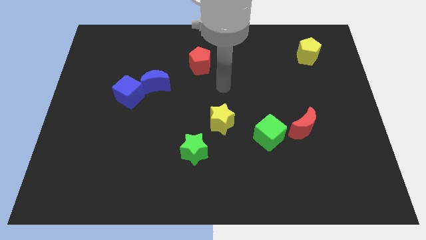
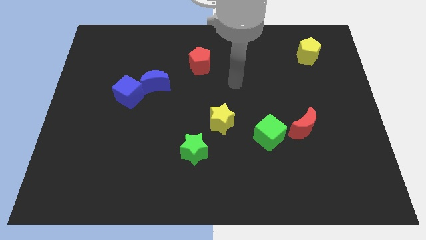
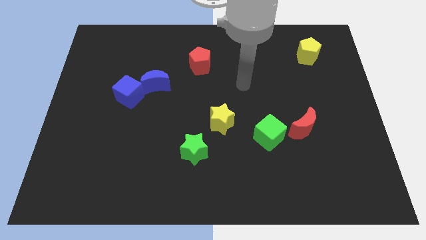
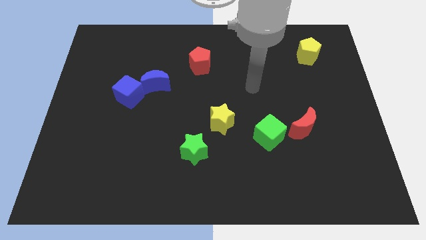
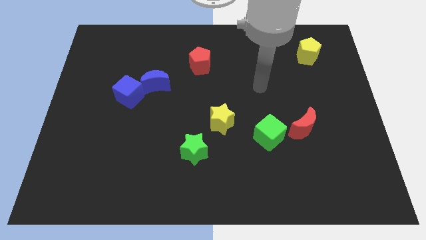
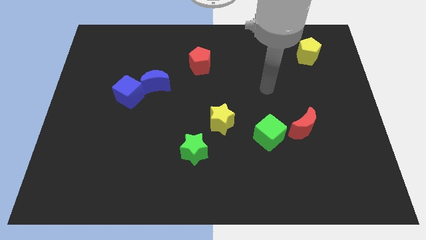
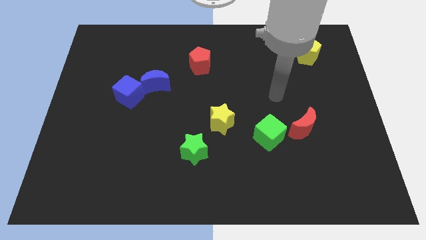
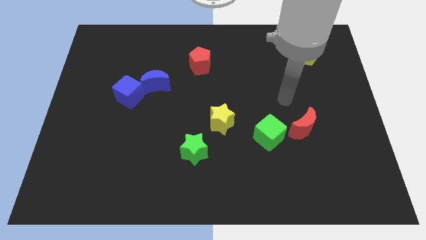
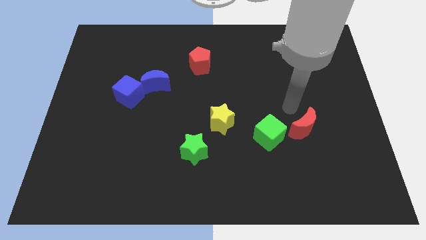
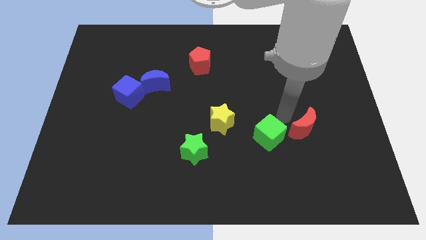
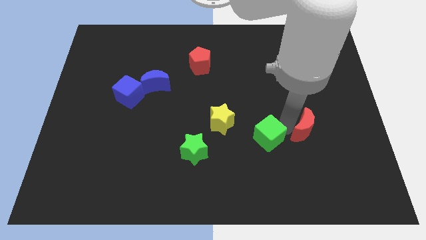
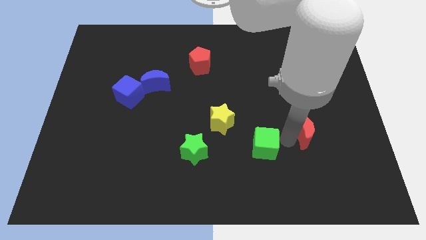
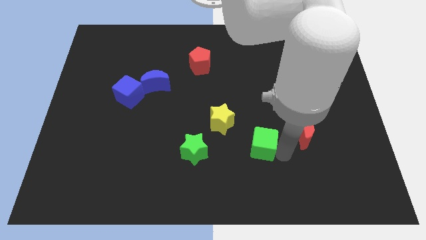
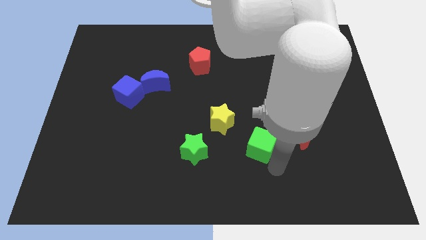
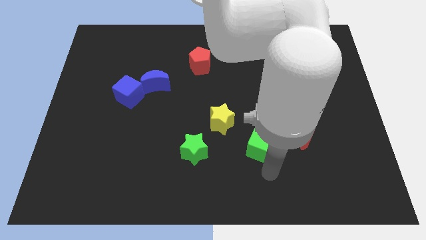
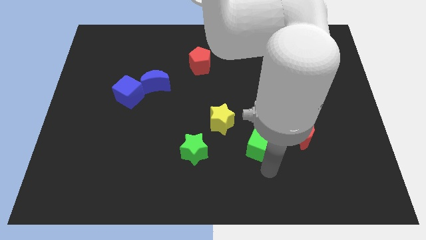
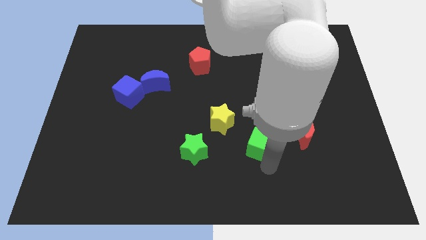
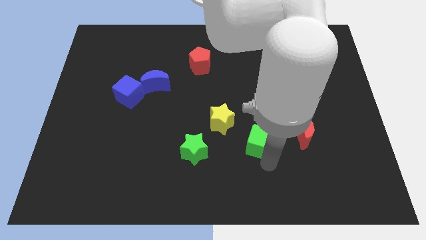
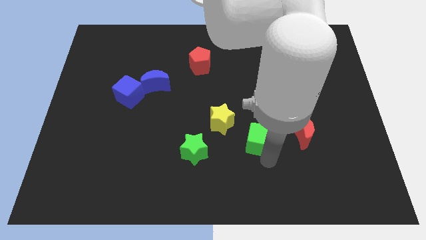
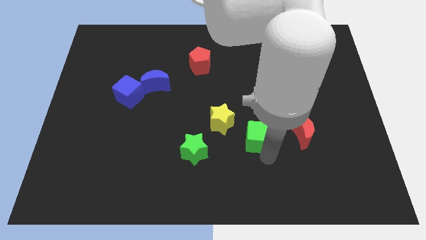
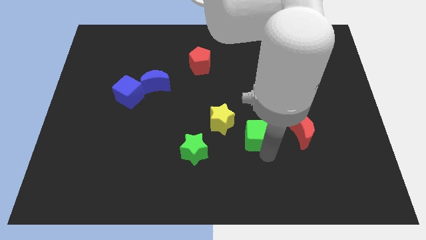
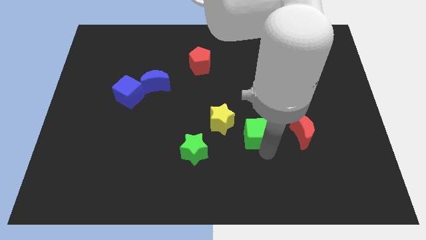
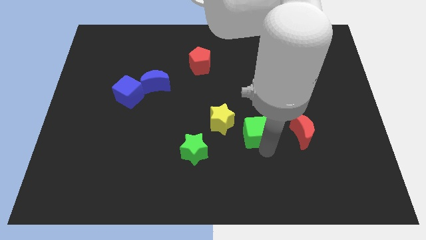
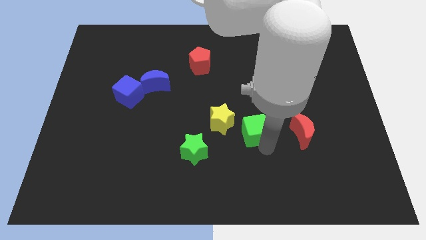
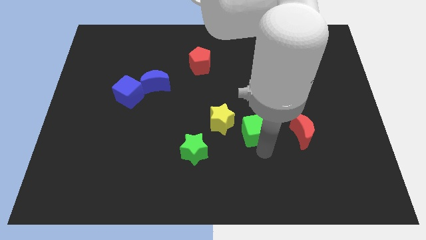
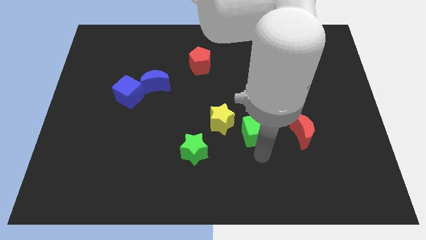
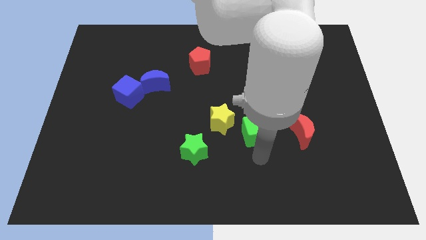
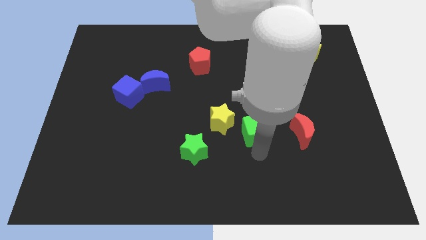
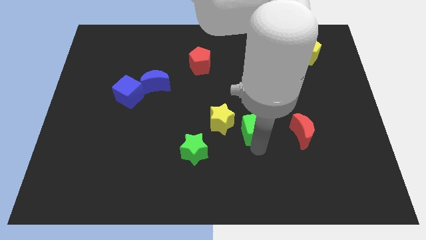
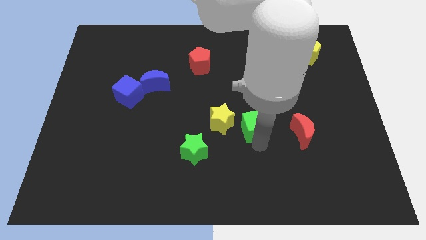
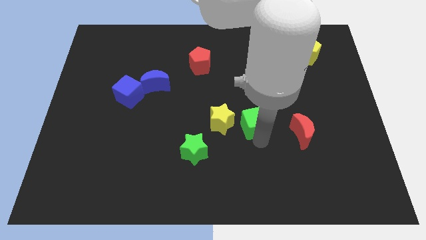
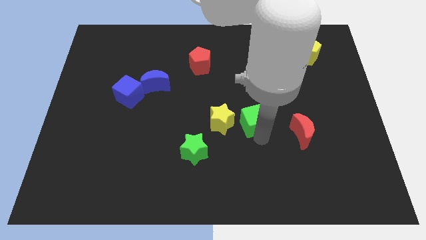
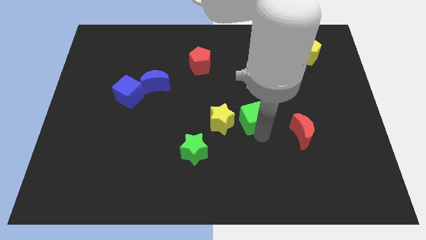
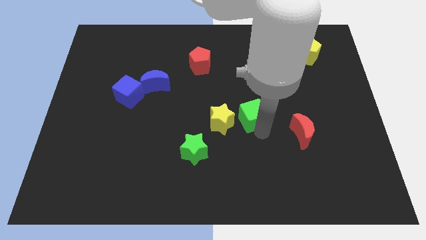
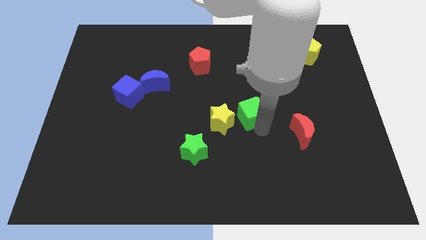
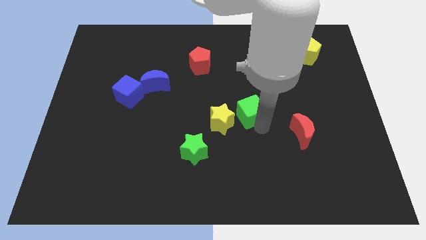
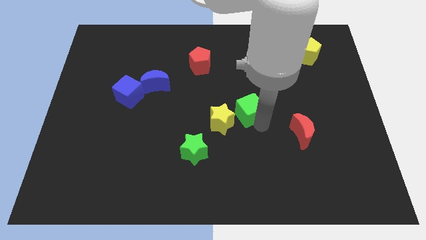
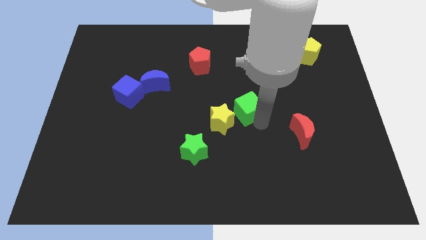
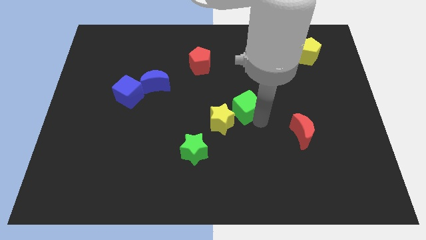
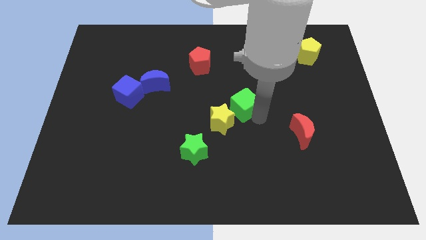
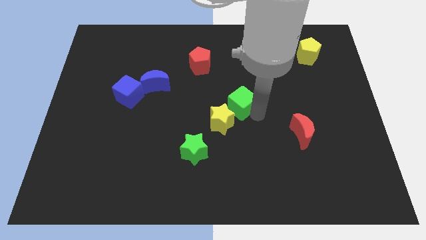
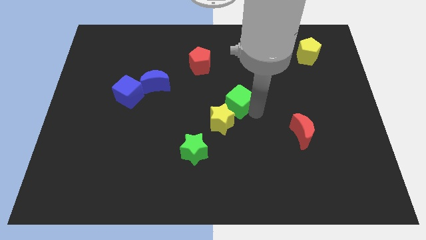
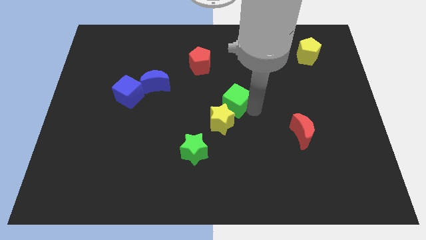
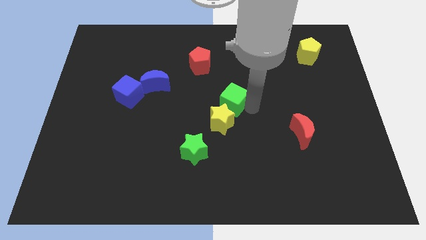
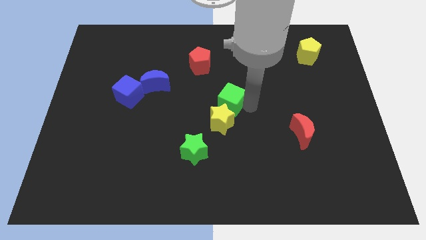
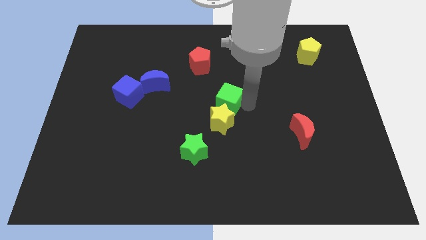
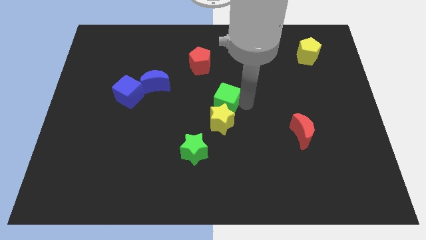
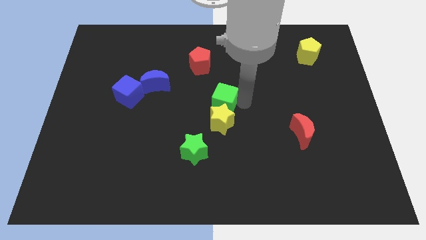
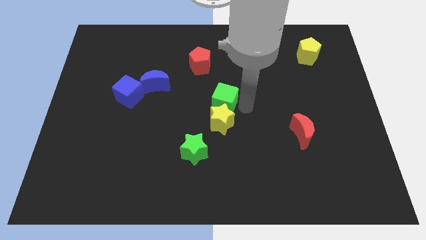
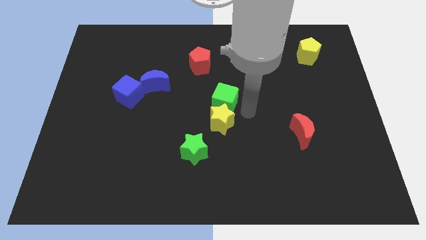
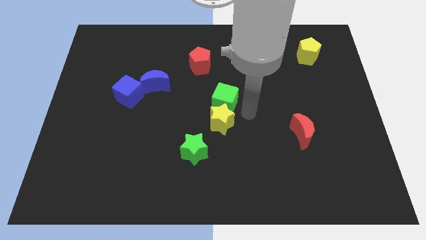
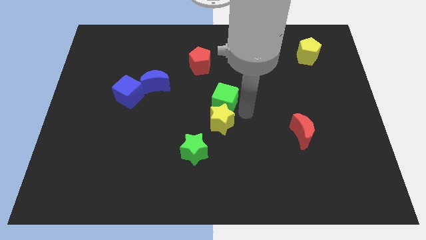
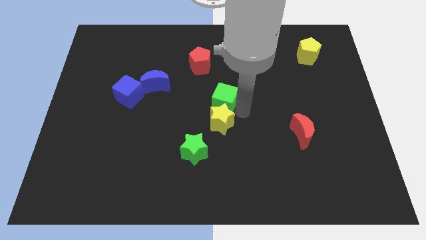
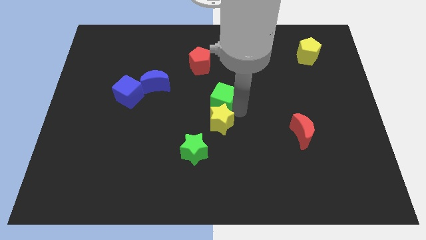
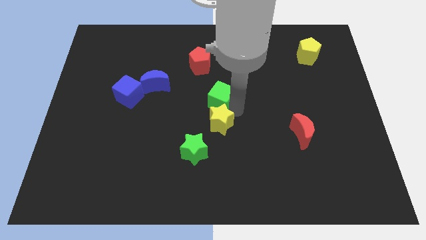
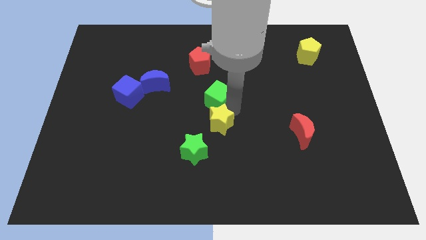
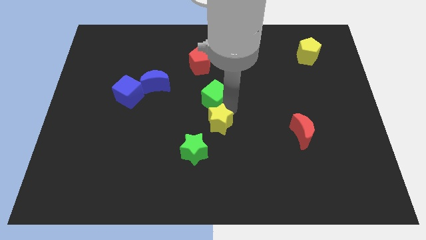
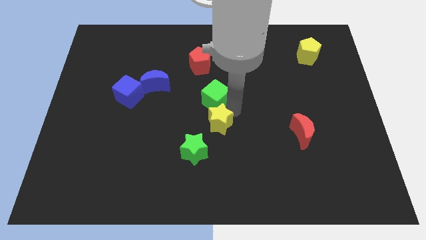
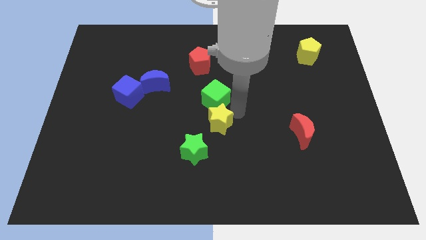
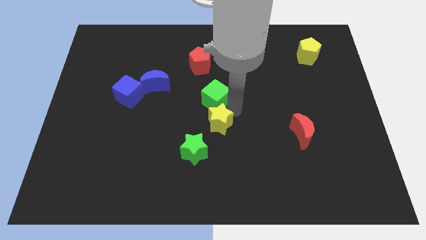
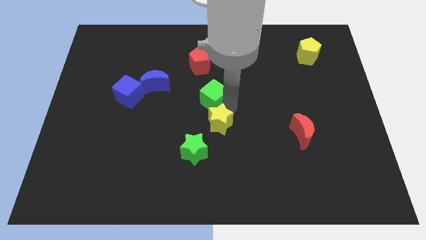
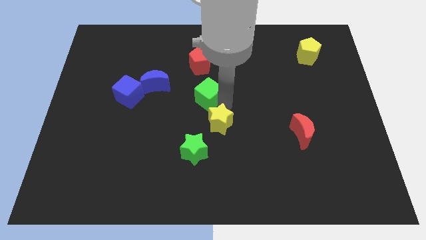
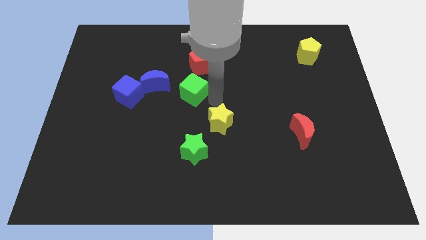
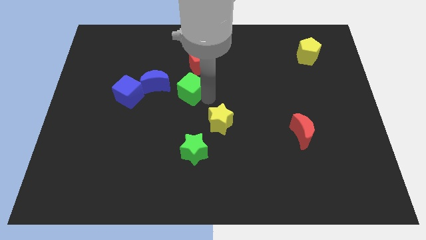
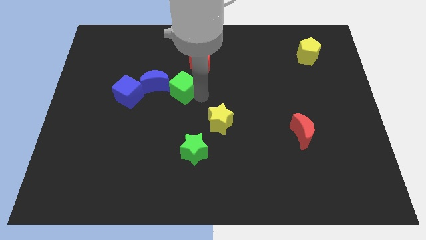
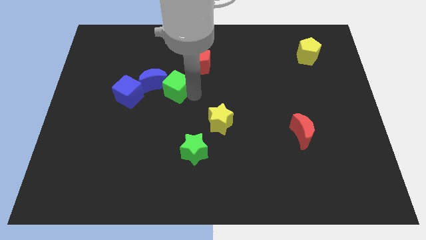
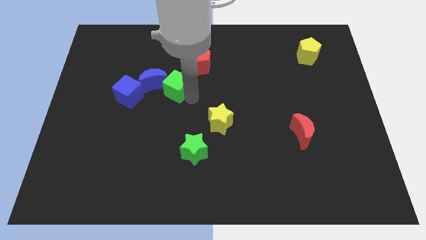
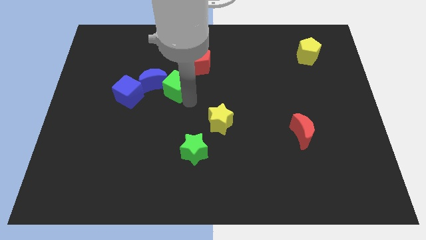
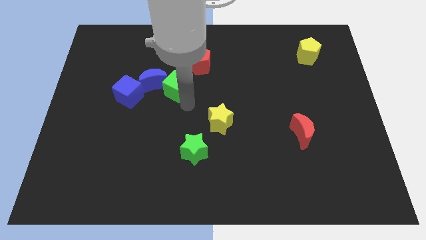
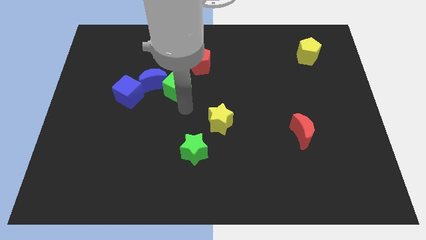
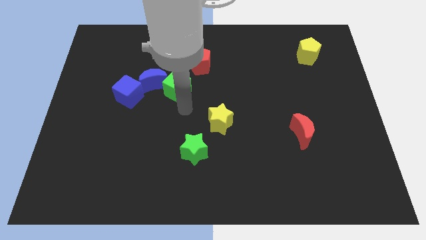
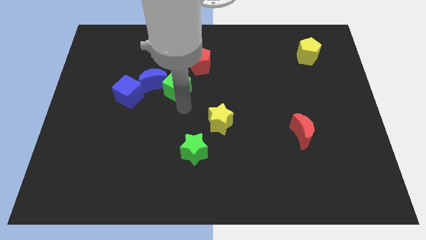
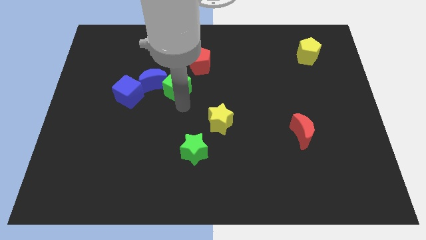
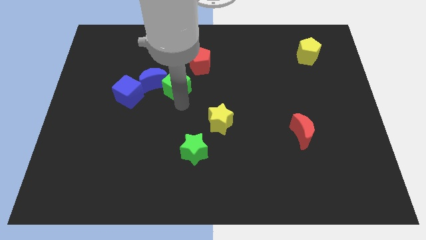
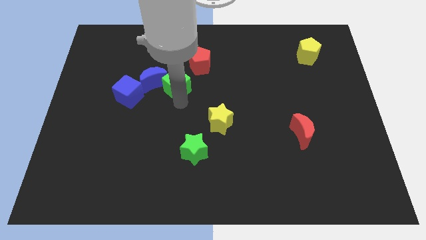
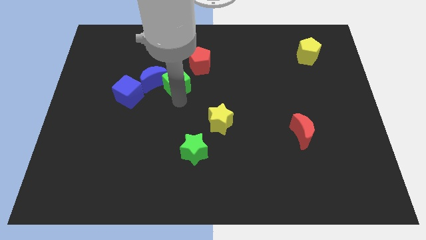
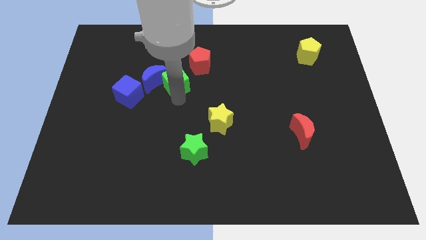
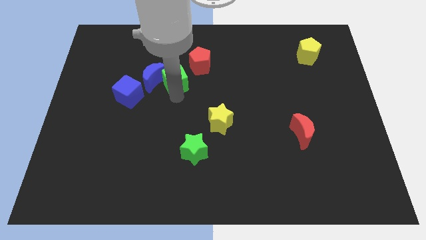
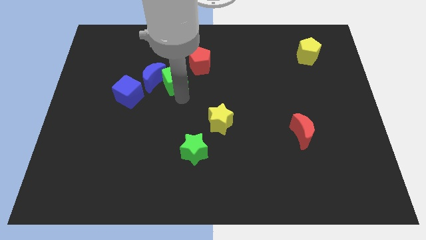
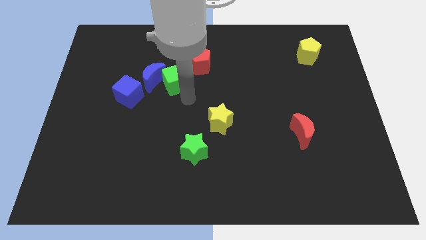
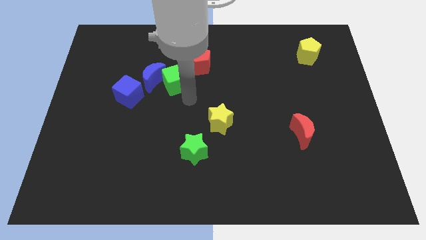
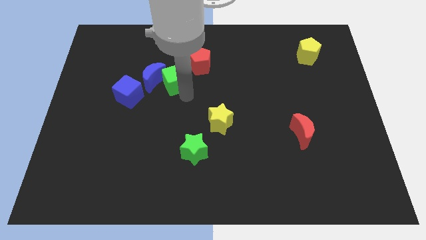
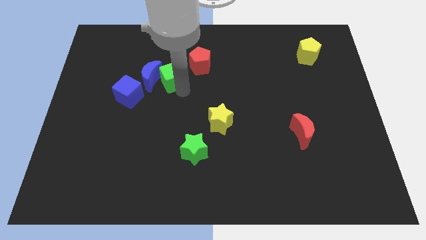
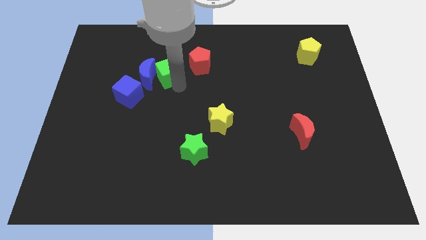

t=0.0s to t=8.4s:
put the green cube left of the red pentagon
